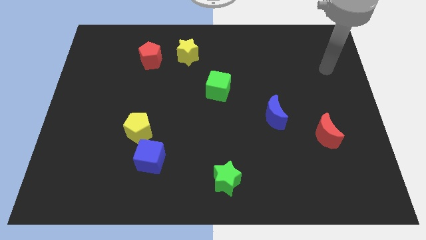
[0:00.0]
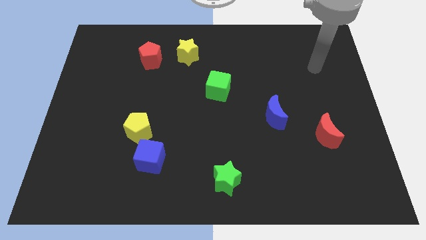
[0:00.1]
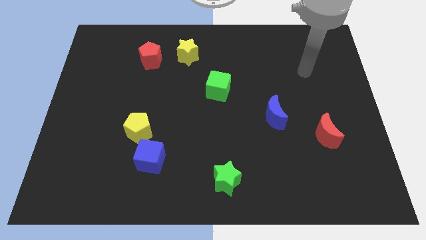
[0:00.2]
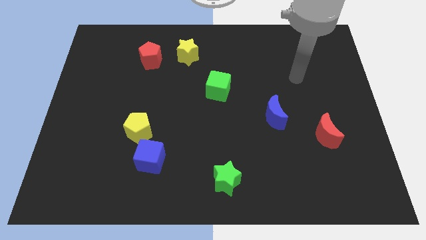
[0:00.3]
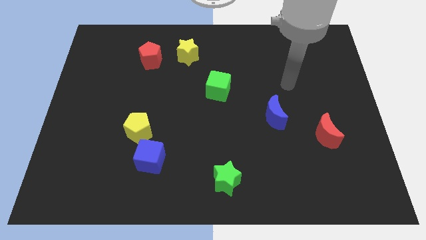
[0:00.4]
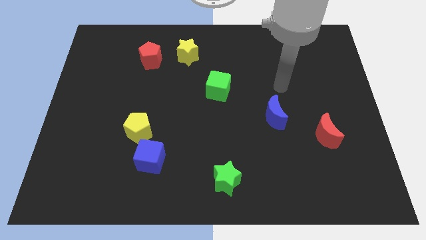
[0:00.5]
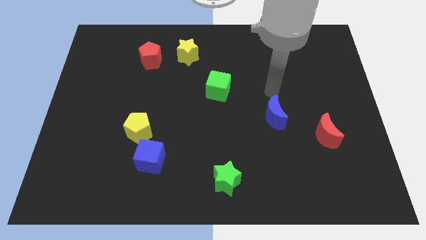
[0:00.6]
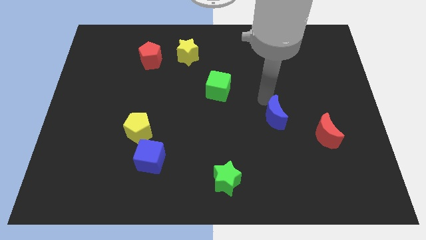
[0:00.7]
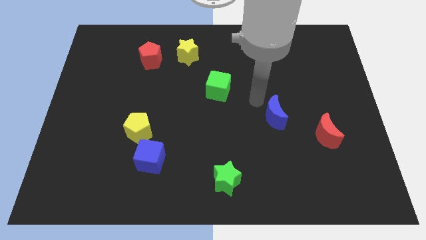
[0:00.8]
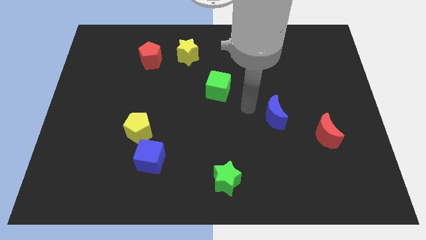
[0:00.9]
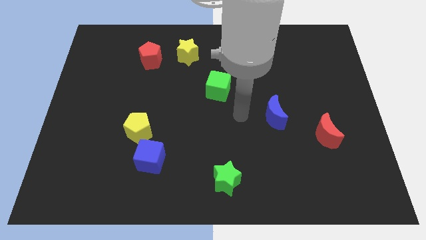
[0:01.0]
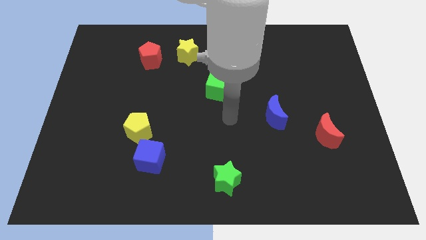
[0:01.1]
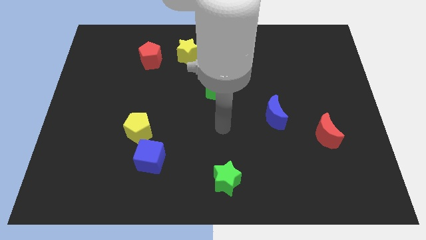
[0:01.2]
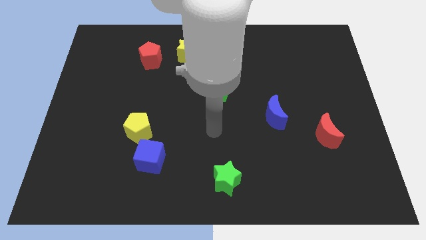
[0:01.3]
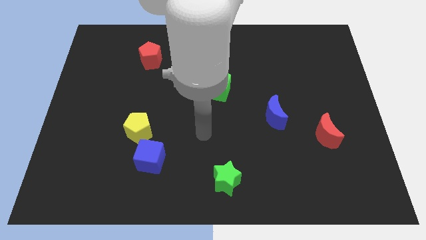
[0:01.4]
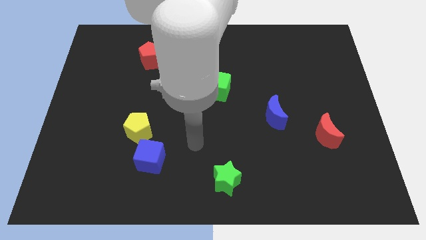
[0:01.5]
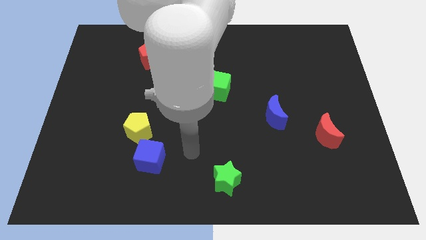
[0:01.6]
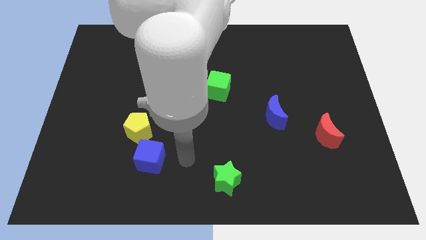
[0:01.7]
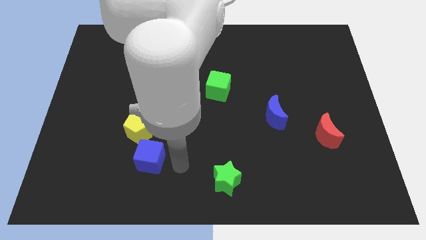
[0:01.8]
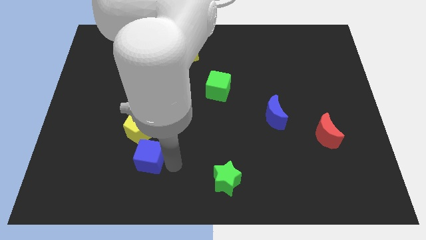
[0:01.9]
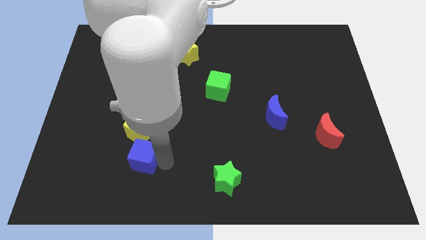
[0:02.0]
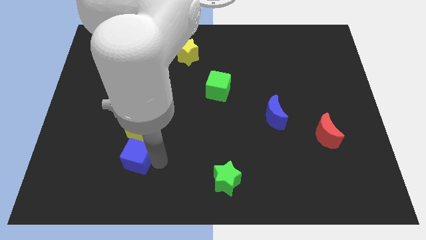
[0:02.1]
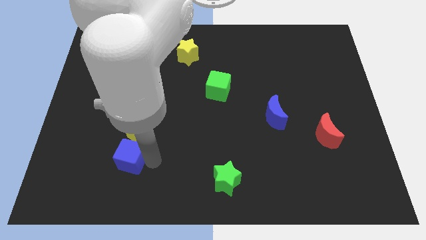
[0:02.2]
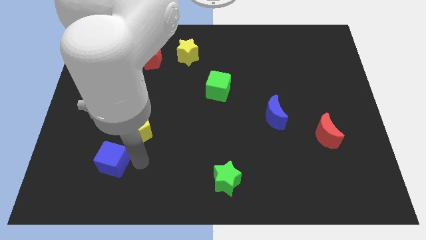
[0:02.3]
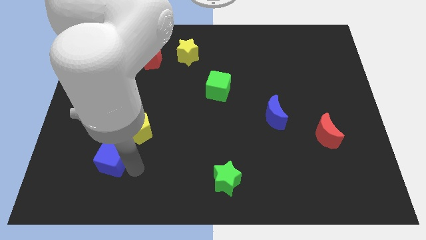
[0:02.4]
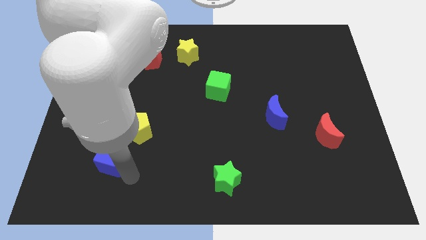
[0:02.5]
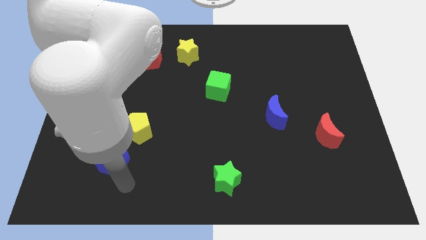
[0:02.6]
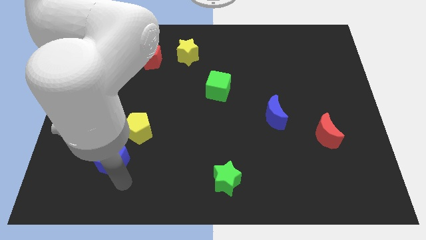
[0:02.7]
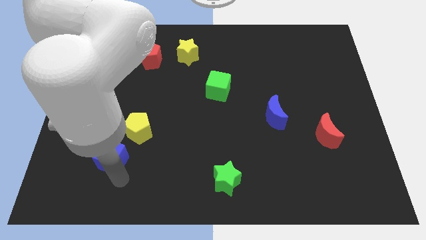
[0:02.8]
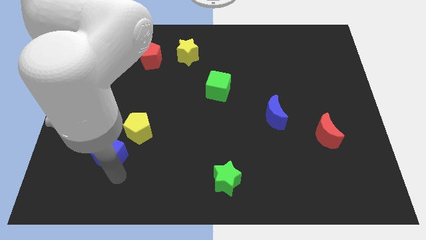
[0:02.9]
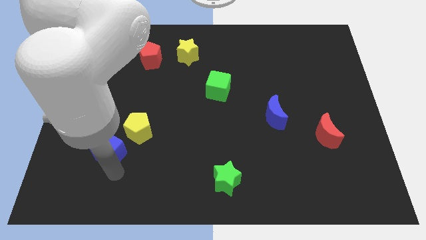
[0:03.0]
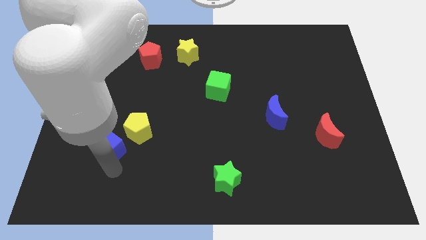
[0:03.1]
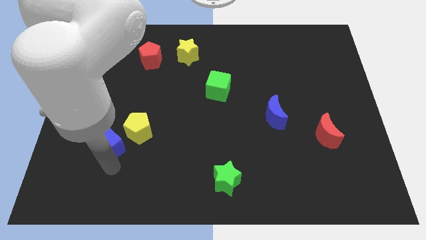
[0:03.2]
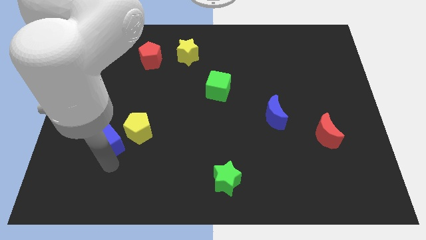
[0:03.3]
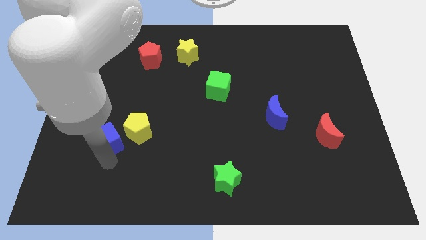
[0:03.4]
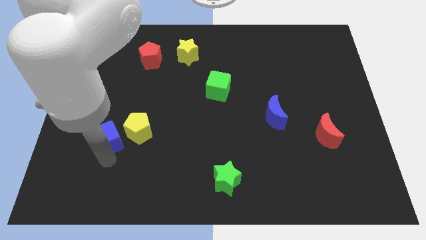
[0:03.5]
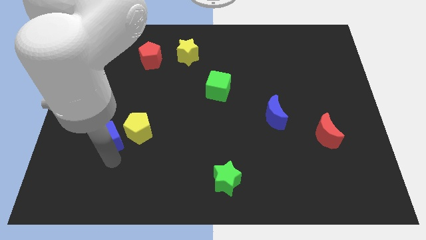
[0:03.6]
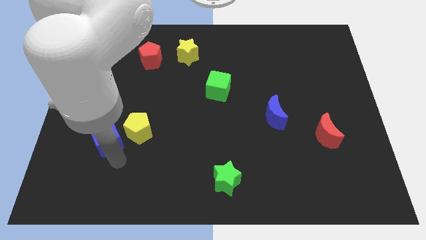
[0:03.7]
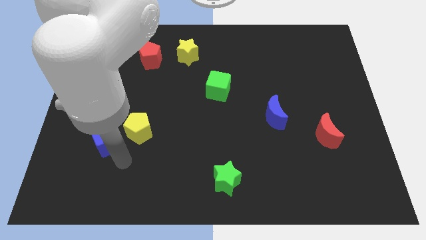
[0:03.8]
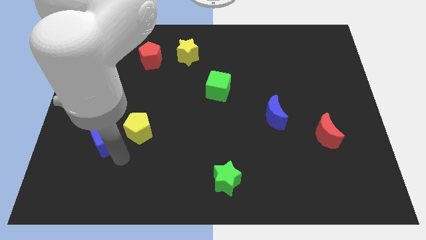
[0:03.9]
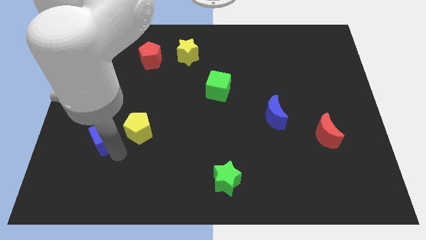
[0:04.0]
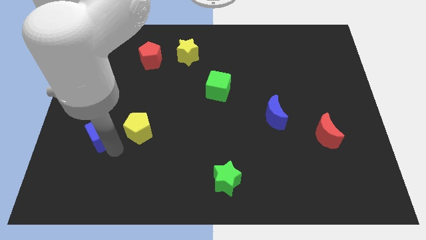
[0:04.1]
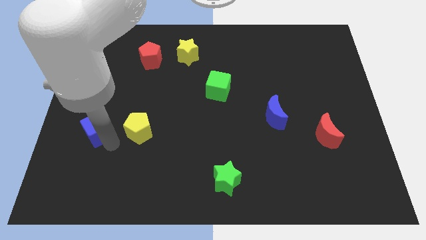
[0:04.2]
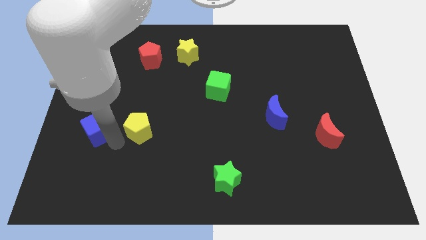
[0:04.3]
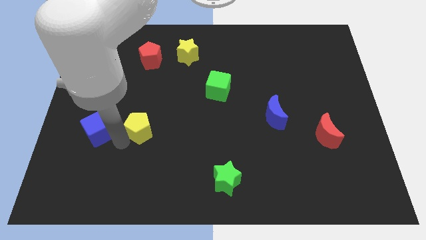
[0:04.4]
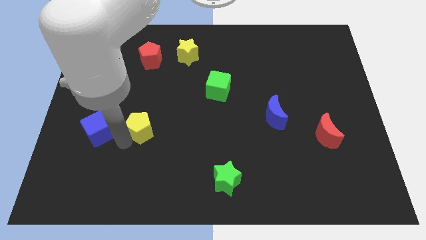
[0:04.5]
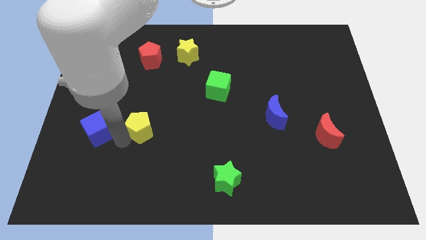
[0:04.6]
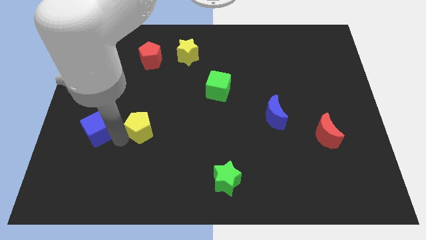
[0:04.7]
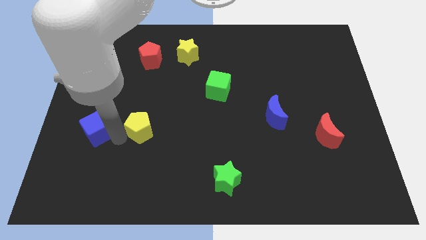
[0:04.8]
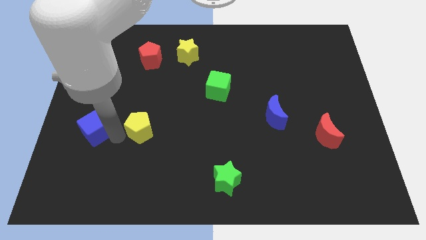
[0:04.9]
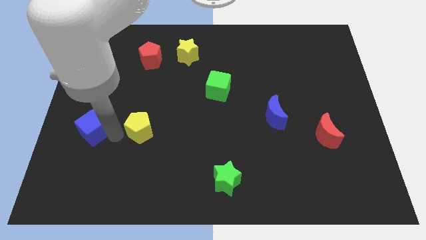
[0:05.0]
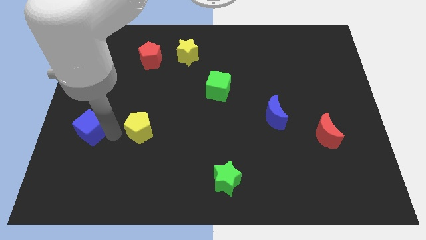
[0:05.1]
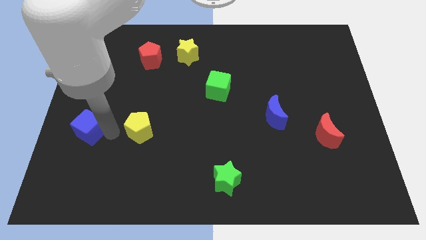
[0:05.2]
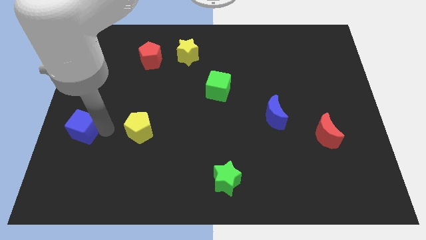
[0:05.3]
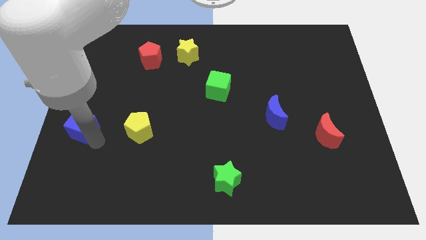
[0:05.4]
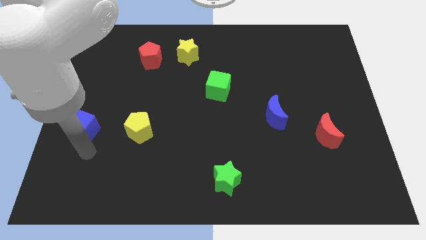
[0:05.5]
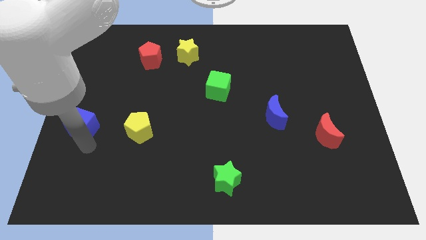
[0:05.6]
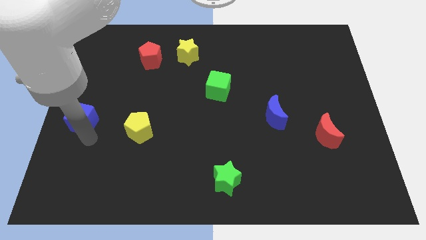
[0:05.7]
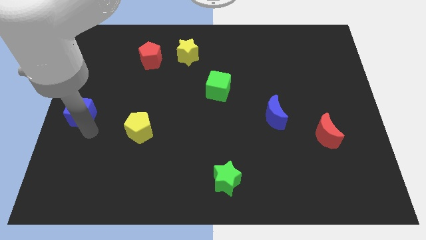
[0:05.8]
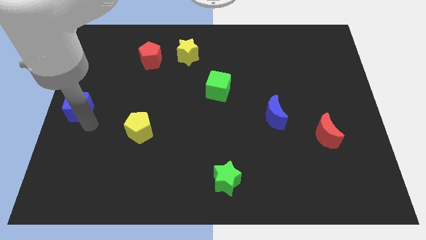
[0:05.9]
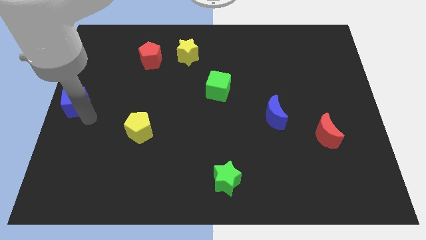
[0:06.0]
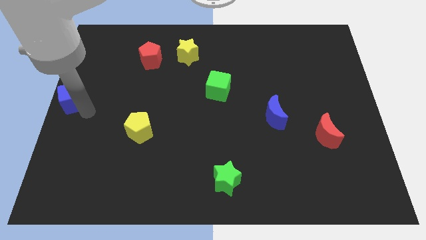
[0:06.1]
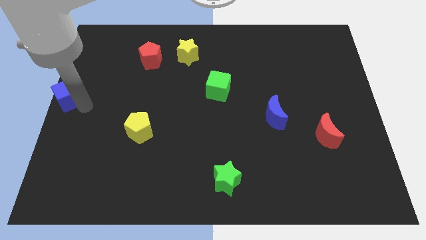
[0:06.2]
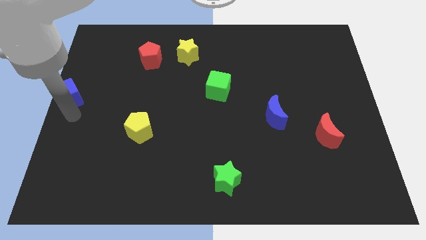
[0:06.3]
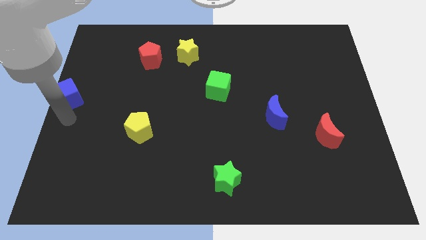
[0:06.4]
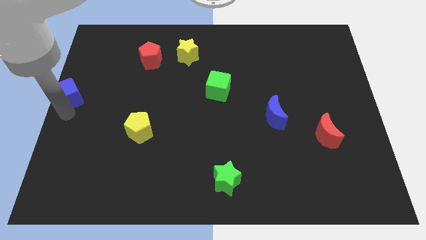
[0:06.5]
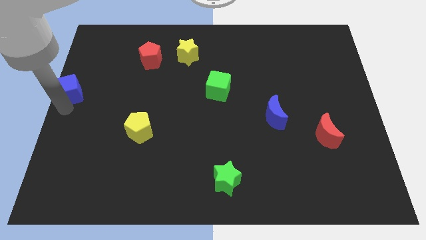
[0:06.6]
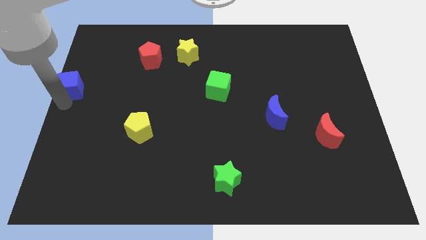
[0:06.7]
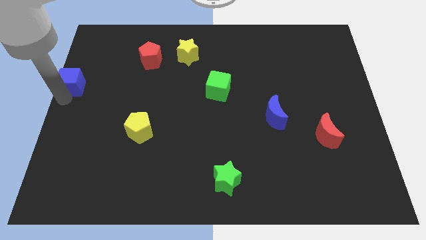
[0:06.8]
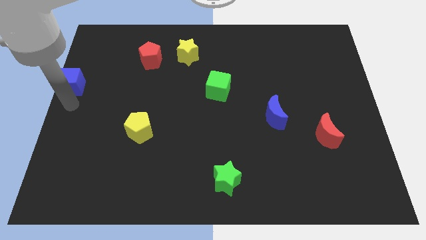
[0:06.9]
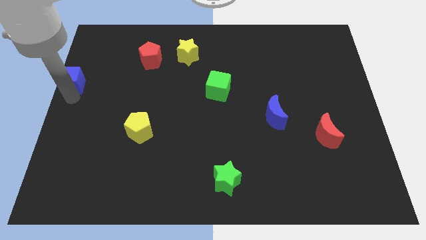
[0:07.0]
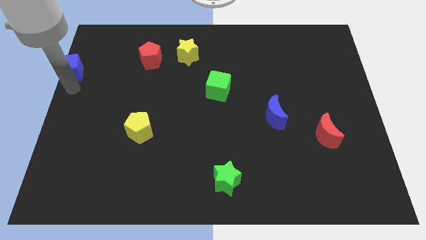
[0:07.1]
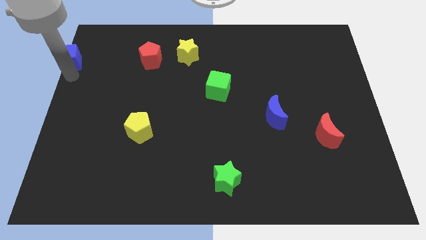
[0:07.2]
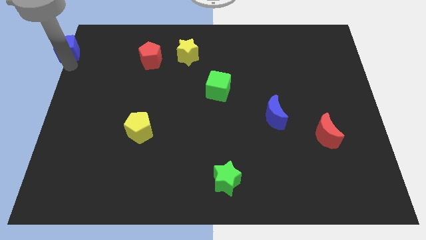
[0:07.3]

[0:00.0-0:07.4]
push the blue cube to the top left of the board
